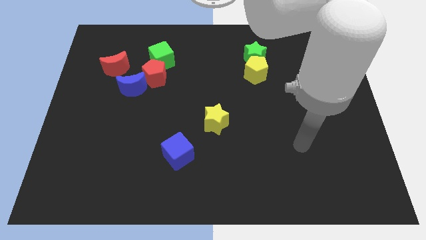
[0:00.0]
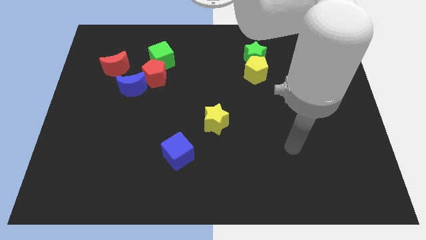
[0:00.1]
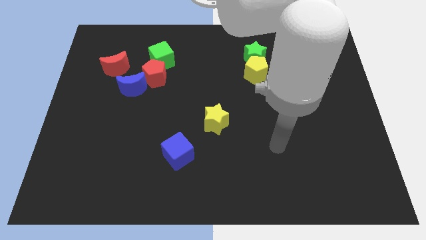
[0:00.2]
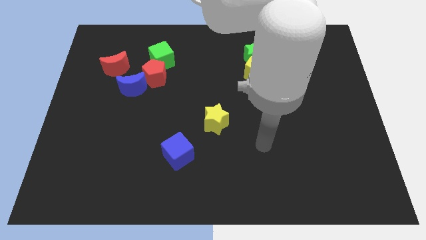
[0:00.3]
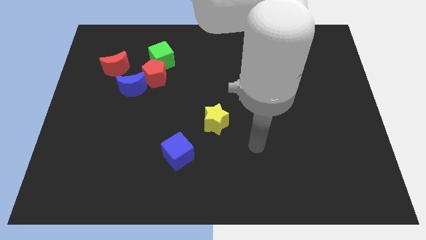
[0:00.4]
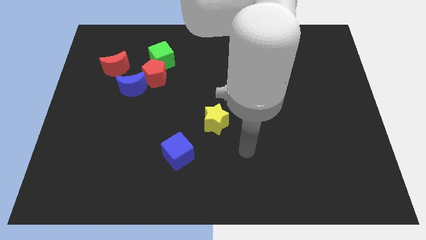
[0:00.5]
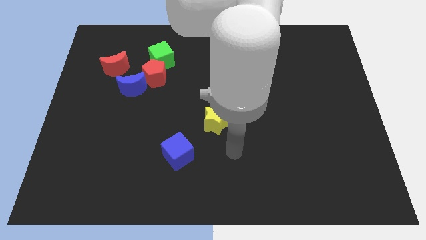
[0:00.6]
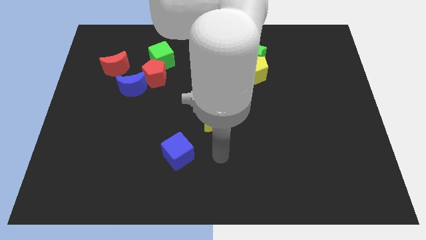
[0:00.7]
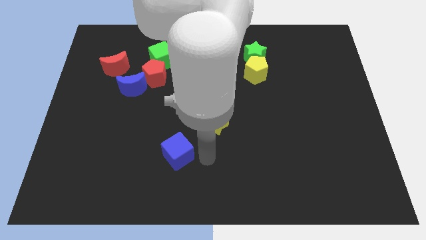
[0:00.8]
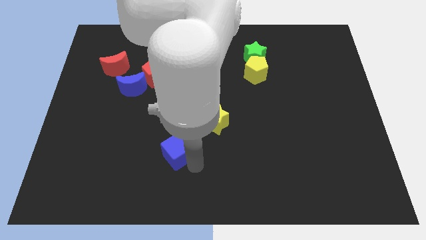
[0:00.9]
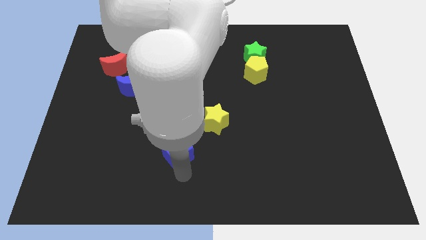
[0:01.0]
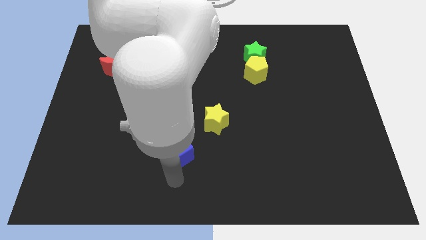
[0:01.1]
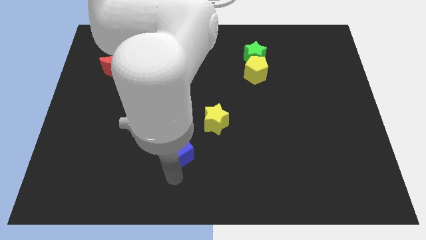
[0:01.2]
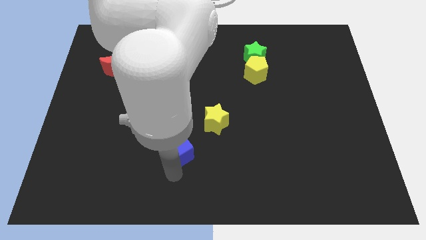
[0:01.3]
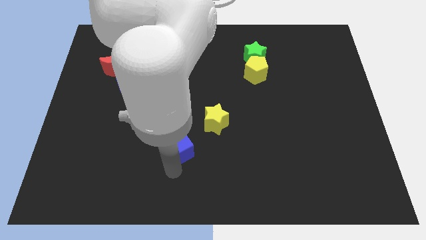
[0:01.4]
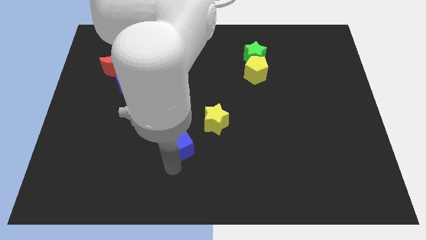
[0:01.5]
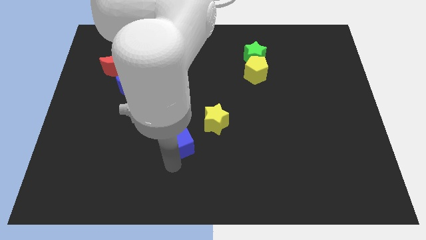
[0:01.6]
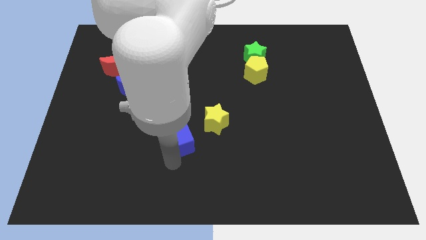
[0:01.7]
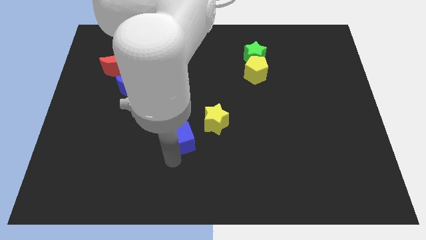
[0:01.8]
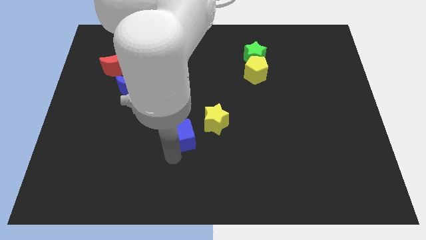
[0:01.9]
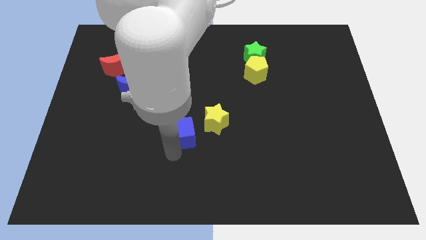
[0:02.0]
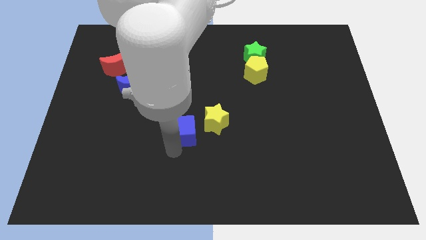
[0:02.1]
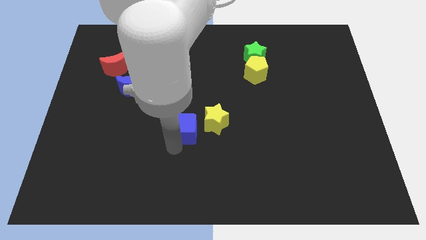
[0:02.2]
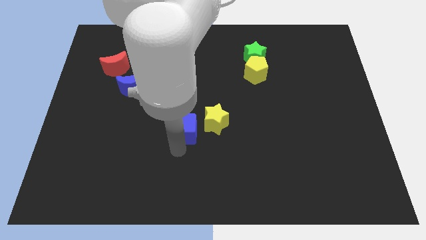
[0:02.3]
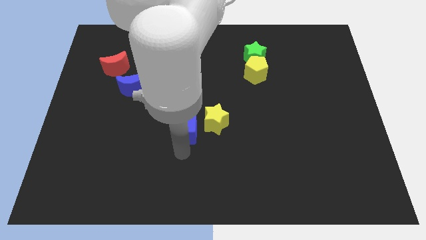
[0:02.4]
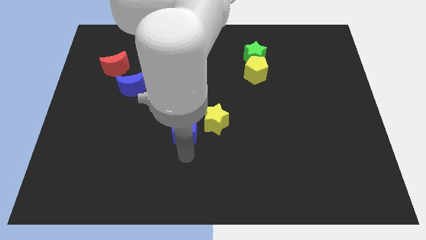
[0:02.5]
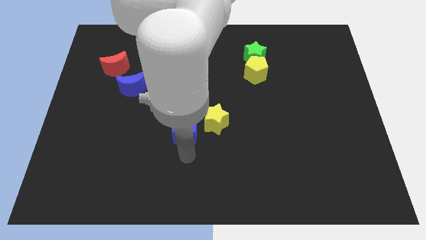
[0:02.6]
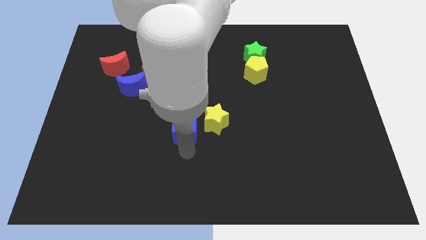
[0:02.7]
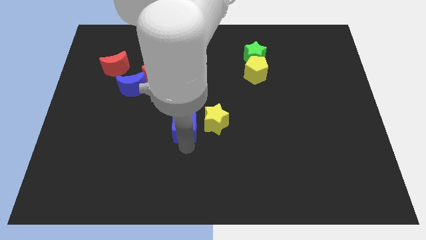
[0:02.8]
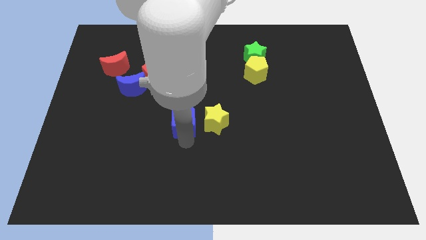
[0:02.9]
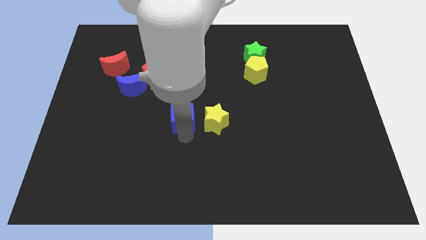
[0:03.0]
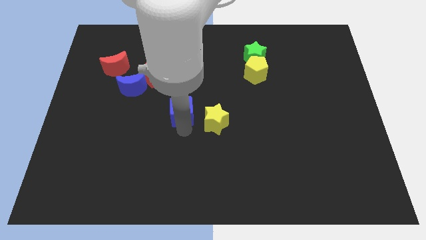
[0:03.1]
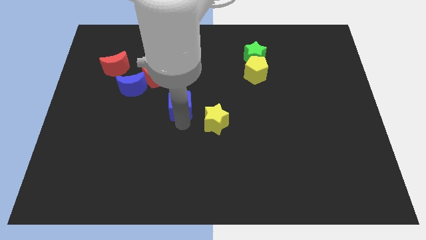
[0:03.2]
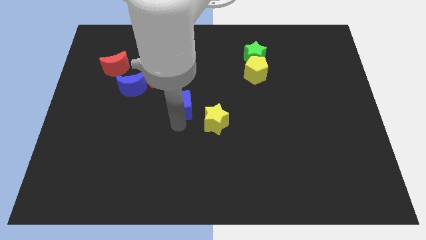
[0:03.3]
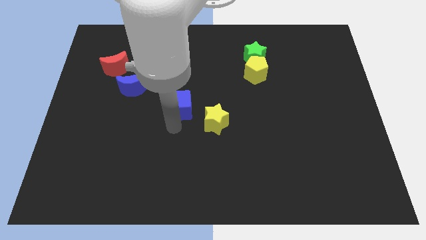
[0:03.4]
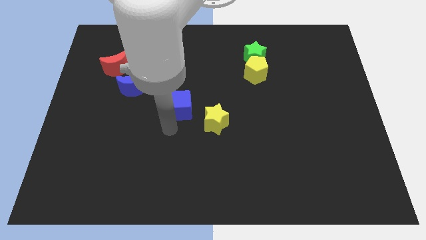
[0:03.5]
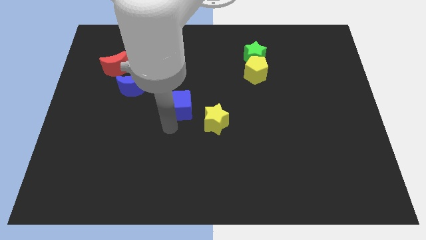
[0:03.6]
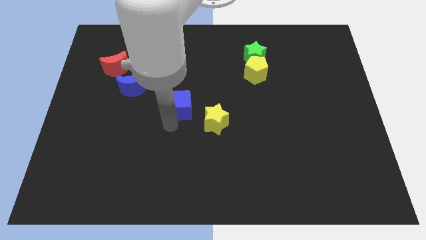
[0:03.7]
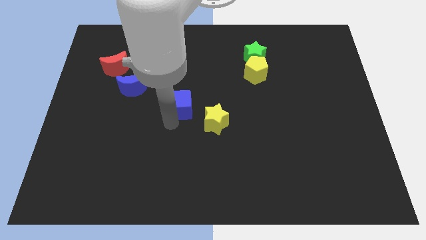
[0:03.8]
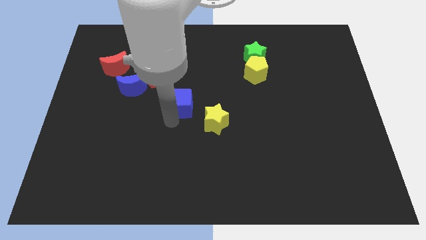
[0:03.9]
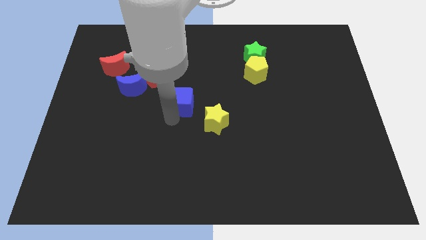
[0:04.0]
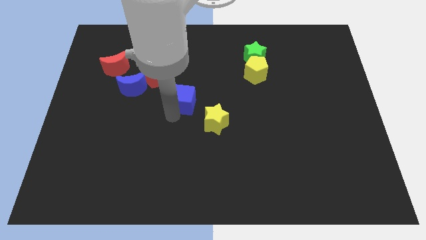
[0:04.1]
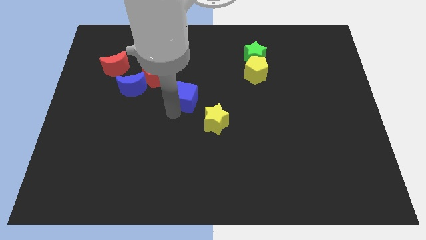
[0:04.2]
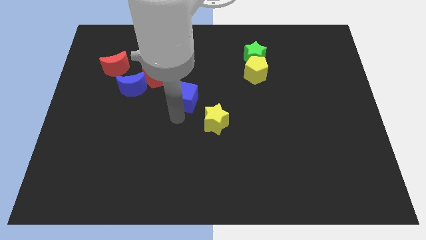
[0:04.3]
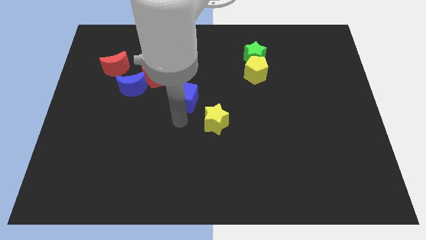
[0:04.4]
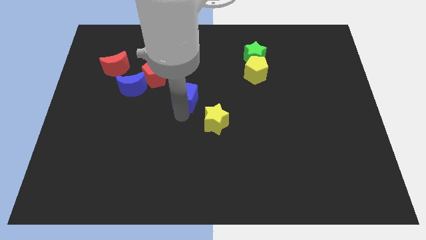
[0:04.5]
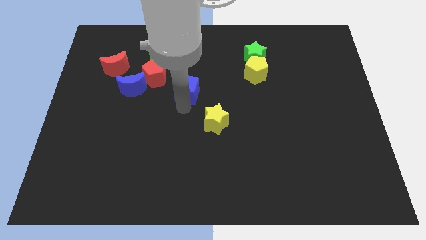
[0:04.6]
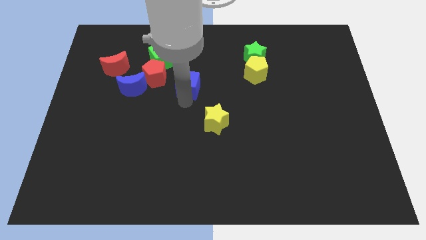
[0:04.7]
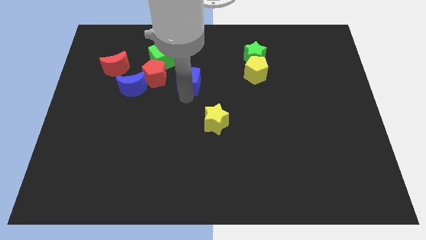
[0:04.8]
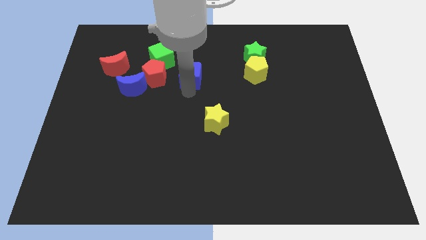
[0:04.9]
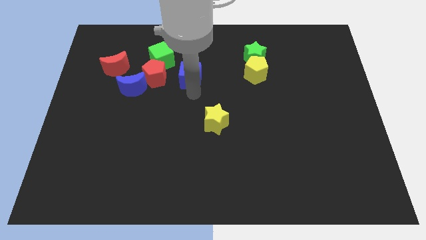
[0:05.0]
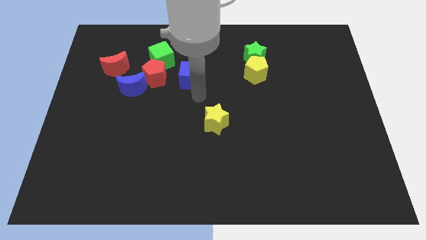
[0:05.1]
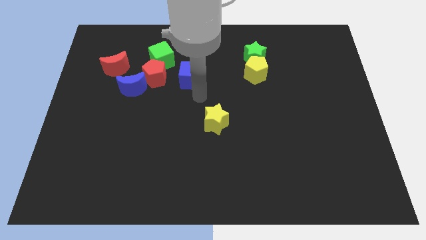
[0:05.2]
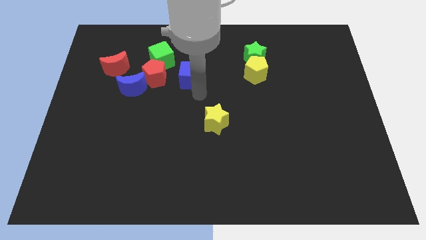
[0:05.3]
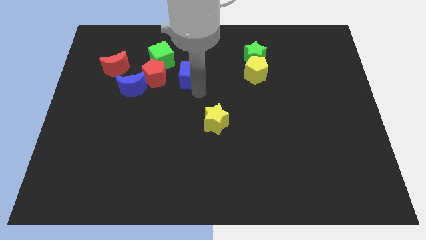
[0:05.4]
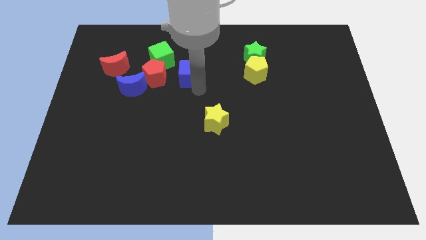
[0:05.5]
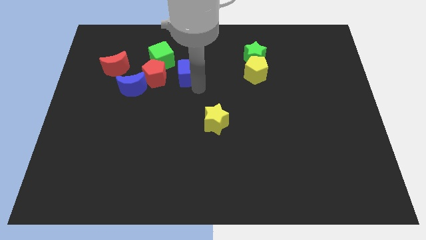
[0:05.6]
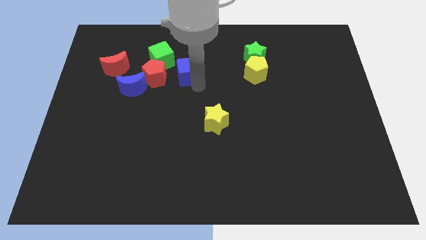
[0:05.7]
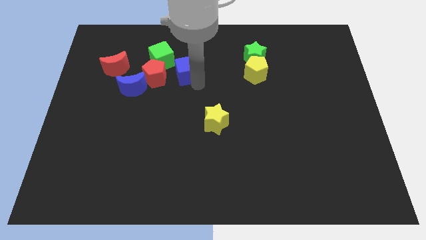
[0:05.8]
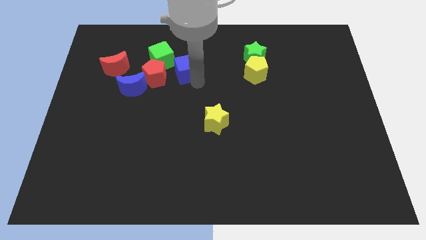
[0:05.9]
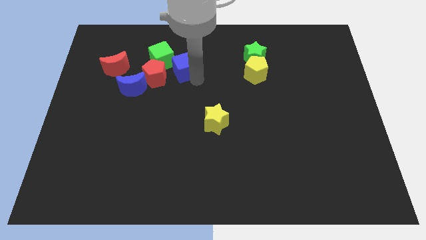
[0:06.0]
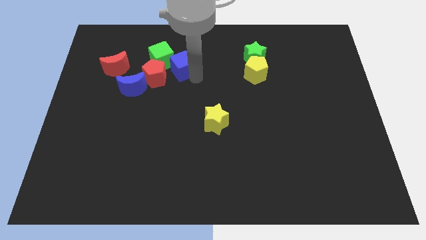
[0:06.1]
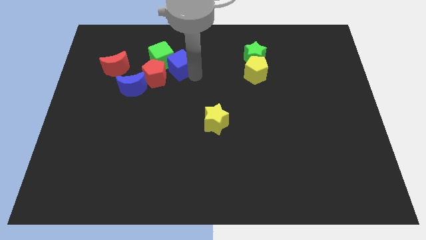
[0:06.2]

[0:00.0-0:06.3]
slide the blue cube close to the green cube
